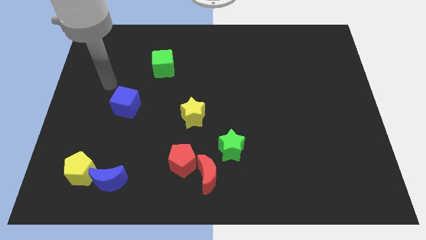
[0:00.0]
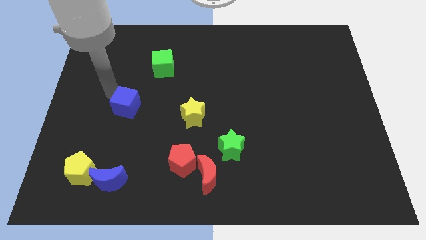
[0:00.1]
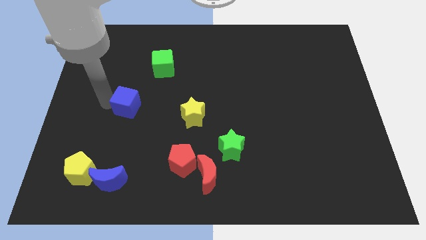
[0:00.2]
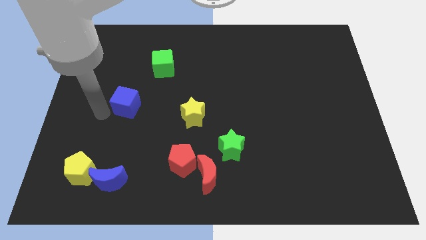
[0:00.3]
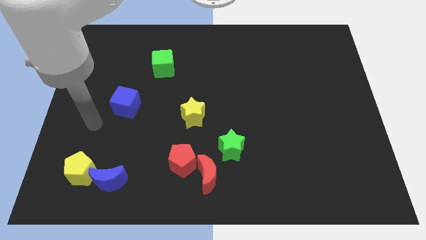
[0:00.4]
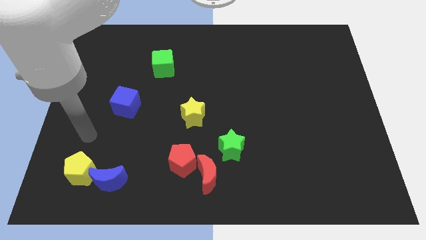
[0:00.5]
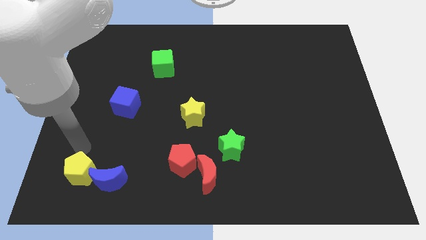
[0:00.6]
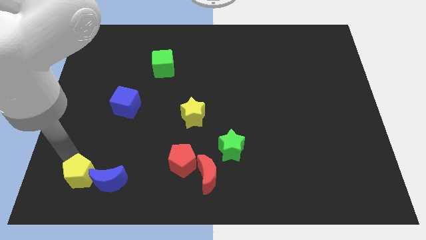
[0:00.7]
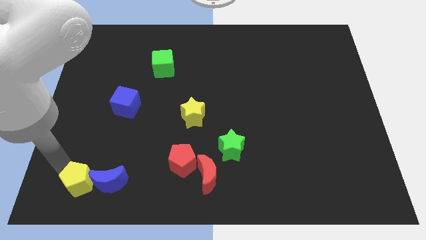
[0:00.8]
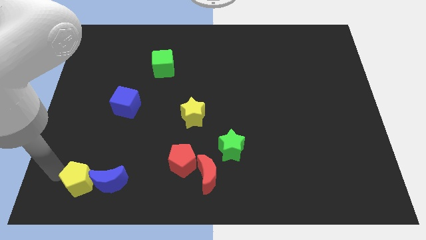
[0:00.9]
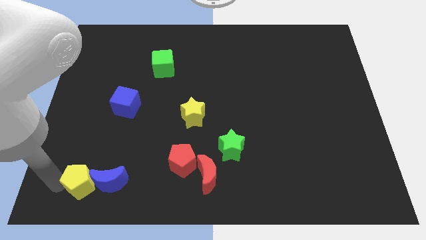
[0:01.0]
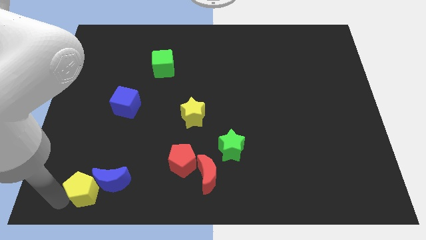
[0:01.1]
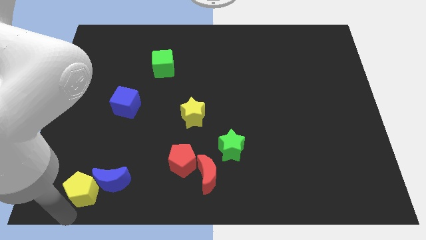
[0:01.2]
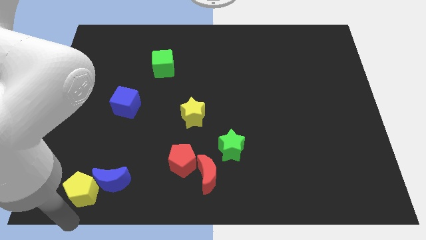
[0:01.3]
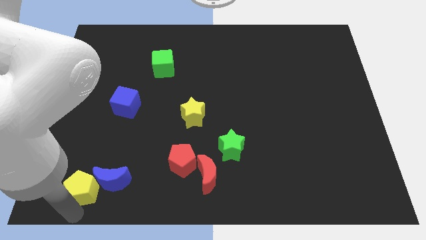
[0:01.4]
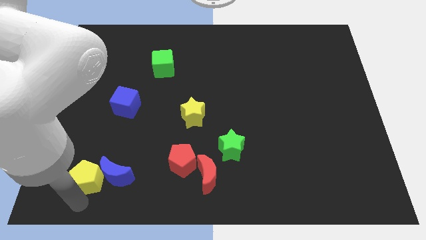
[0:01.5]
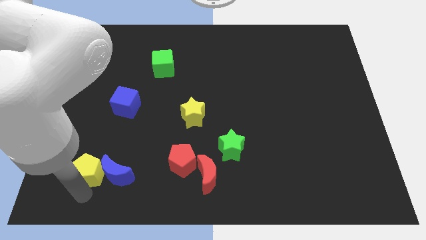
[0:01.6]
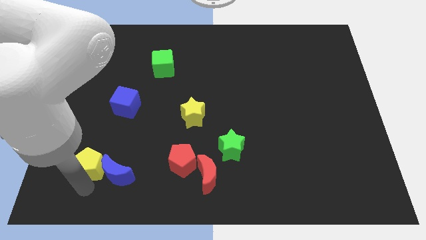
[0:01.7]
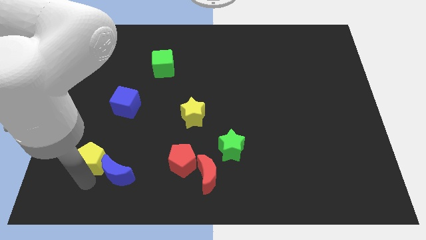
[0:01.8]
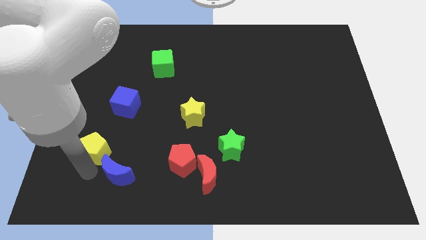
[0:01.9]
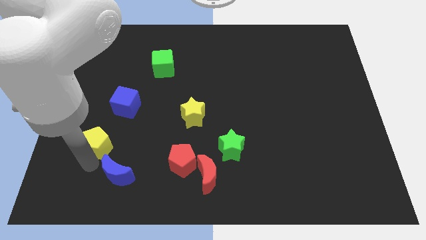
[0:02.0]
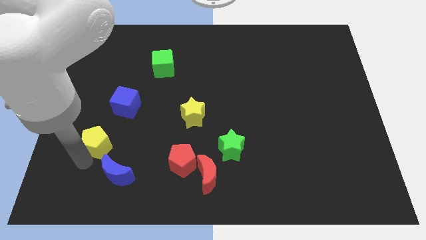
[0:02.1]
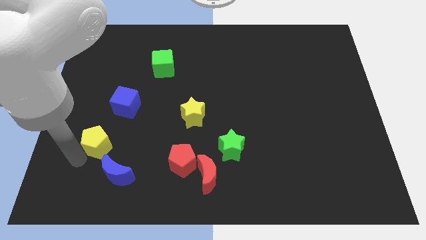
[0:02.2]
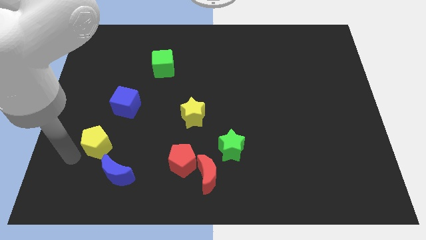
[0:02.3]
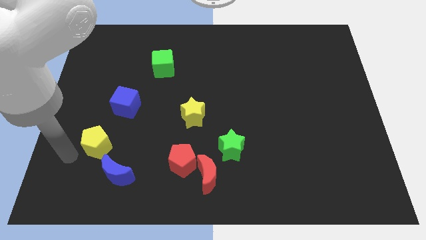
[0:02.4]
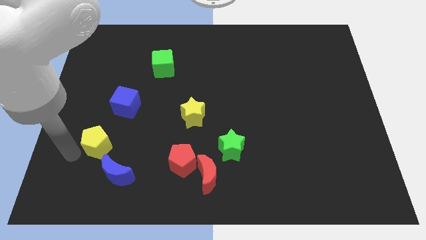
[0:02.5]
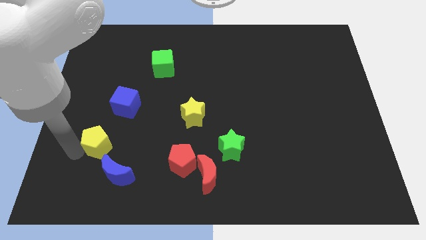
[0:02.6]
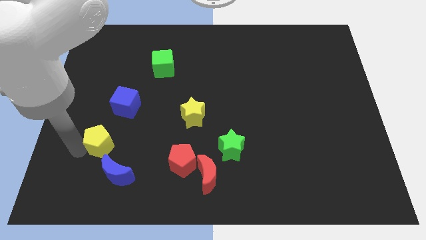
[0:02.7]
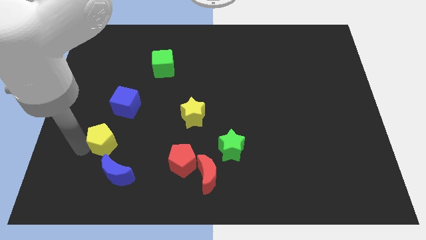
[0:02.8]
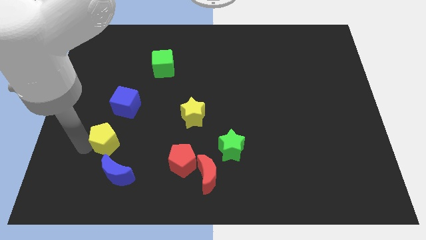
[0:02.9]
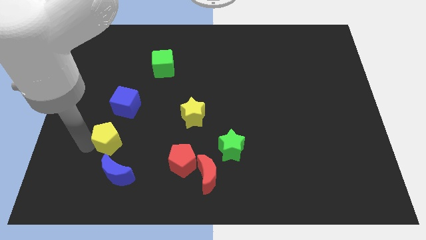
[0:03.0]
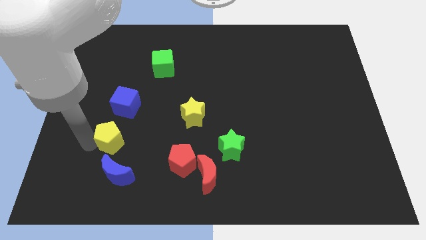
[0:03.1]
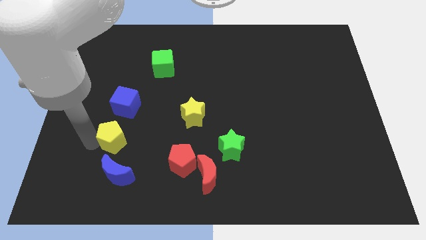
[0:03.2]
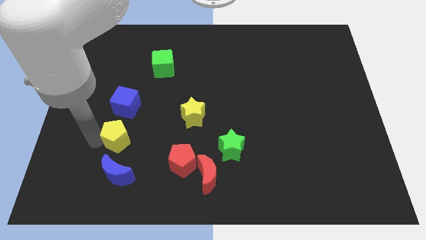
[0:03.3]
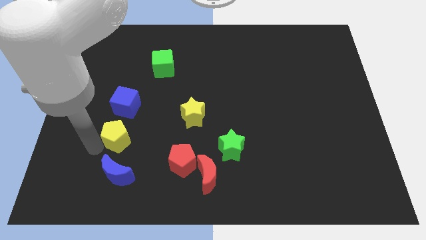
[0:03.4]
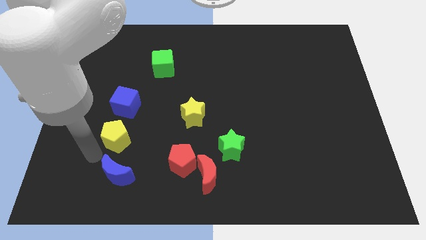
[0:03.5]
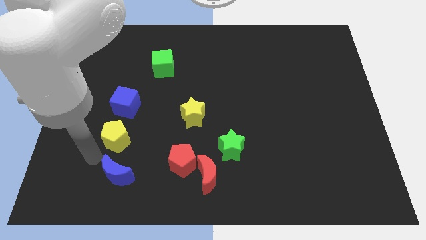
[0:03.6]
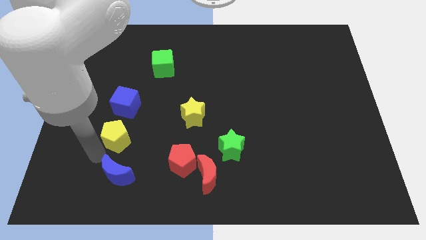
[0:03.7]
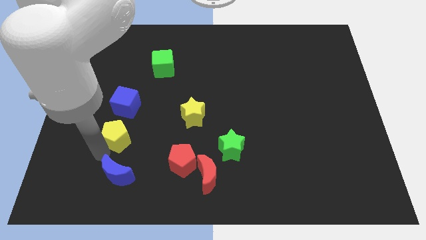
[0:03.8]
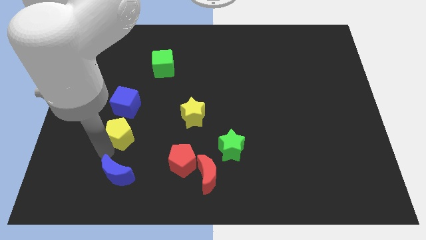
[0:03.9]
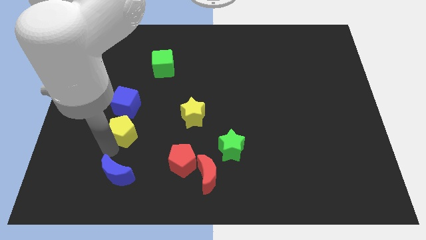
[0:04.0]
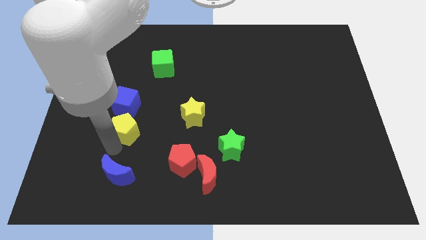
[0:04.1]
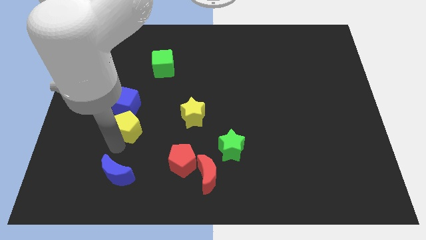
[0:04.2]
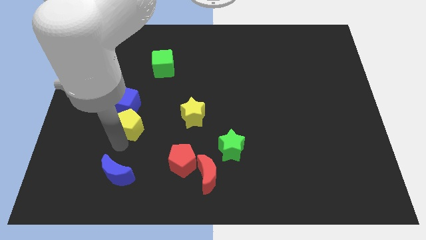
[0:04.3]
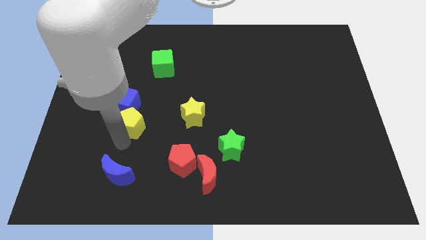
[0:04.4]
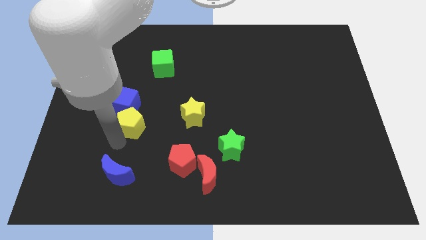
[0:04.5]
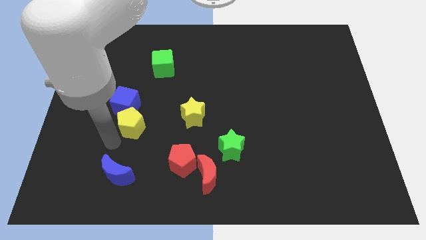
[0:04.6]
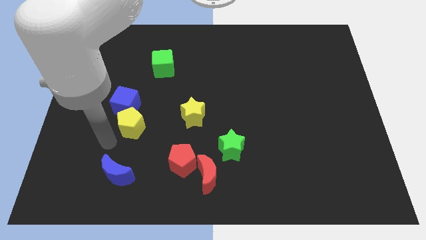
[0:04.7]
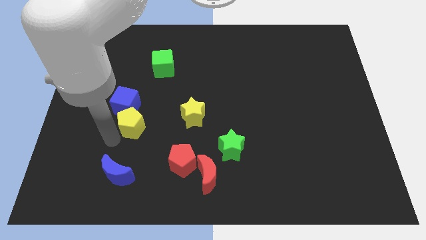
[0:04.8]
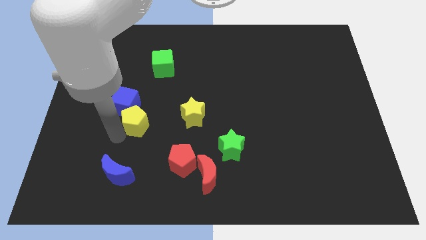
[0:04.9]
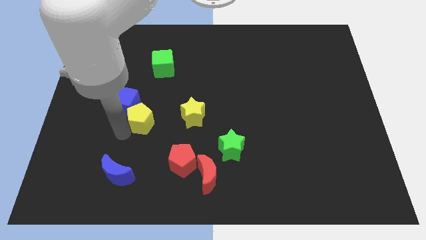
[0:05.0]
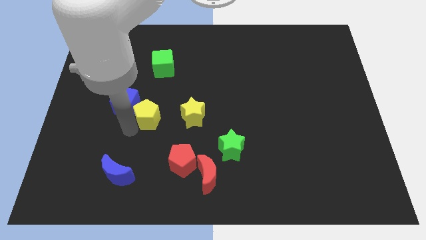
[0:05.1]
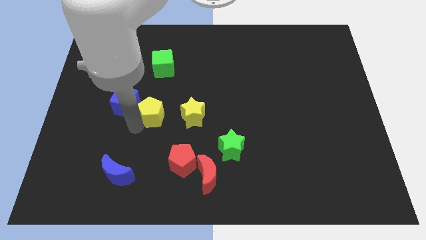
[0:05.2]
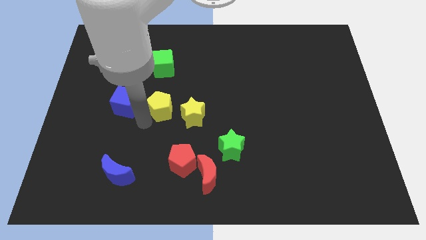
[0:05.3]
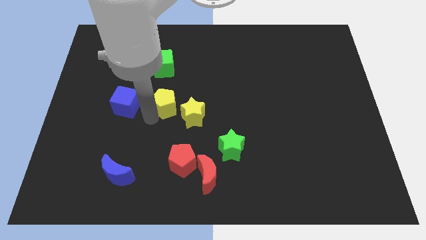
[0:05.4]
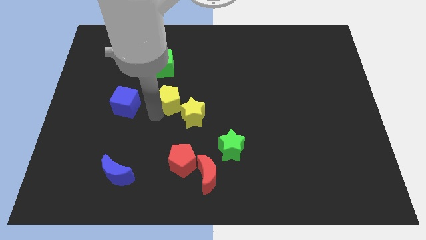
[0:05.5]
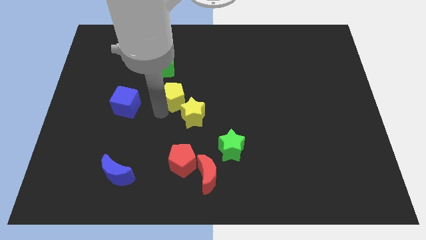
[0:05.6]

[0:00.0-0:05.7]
move the yellow pentagon to the top side of the yellow star

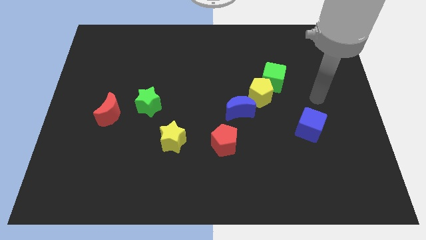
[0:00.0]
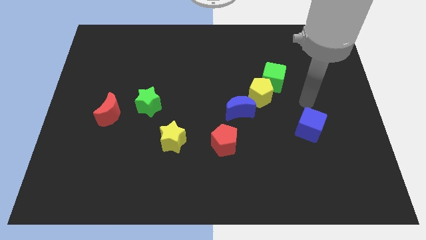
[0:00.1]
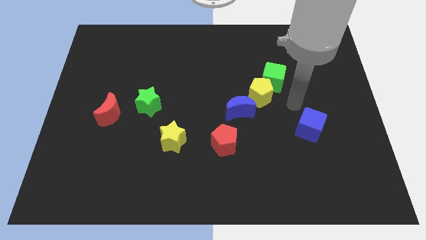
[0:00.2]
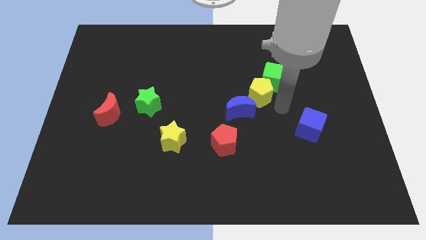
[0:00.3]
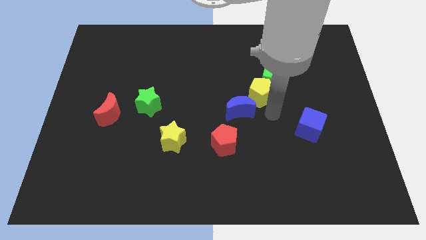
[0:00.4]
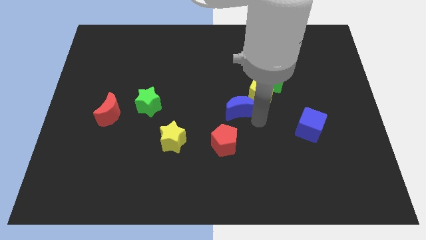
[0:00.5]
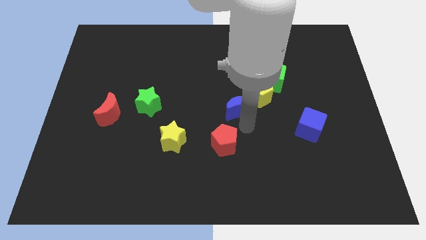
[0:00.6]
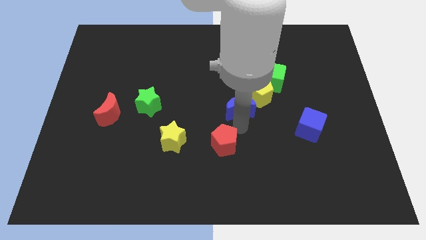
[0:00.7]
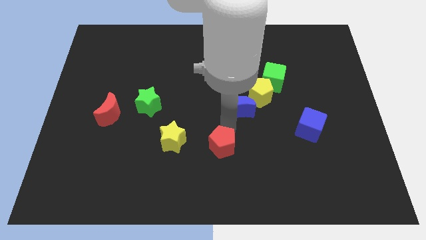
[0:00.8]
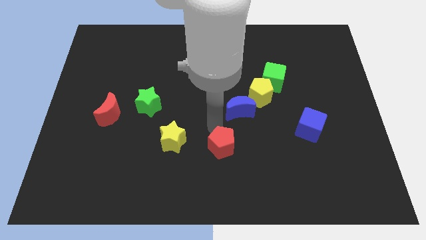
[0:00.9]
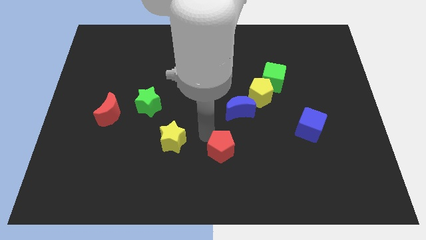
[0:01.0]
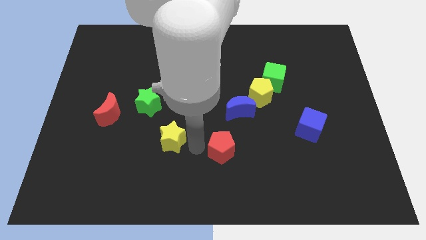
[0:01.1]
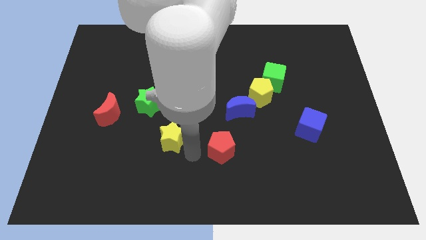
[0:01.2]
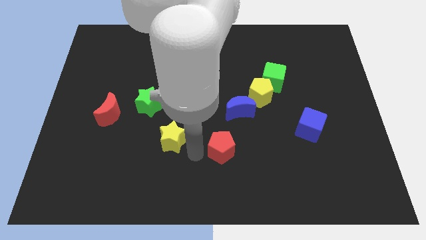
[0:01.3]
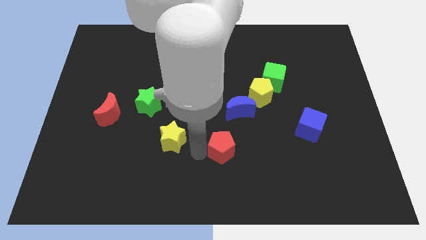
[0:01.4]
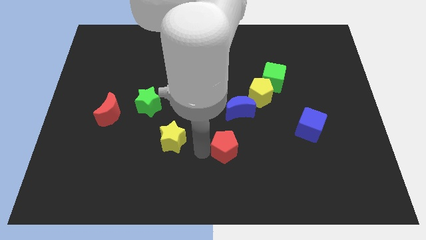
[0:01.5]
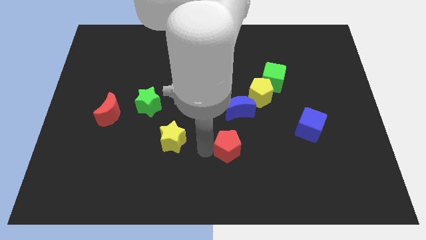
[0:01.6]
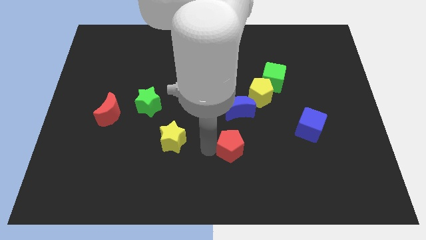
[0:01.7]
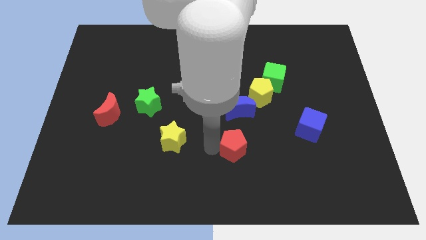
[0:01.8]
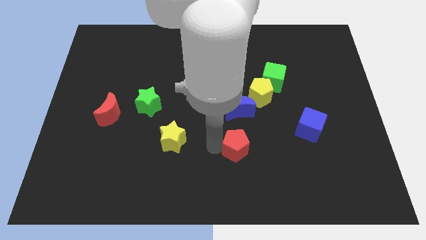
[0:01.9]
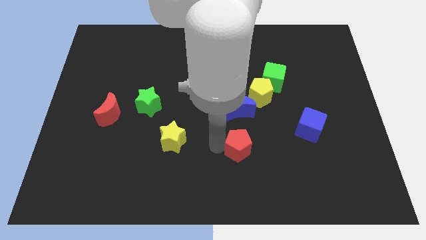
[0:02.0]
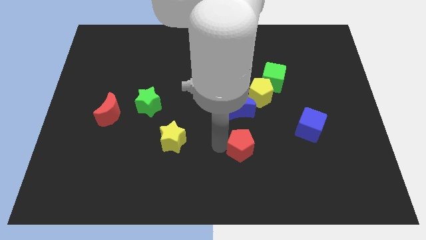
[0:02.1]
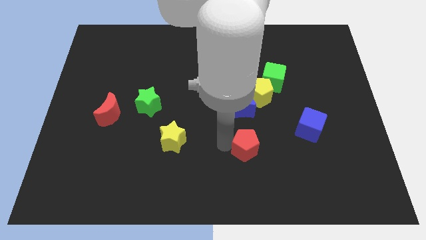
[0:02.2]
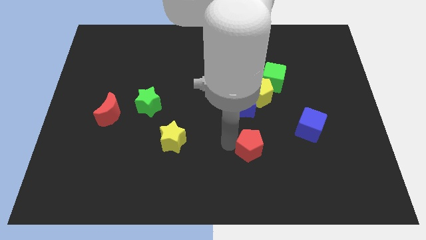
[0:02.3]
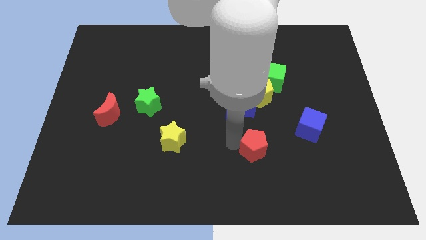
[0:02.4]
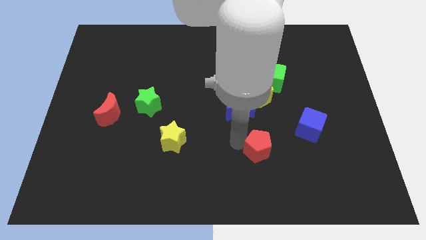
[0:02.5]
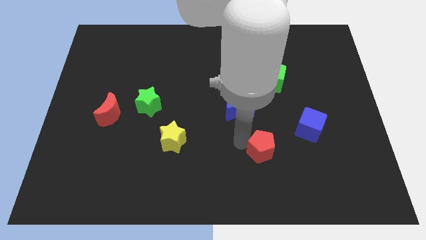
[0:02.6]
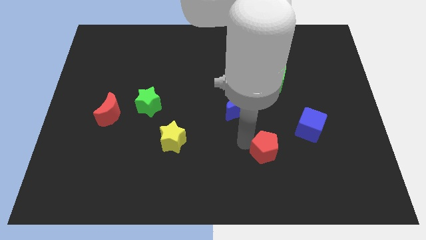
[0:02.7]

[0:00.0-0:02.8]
move the red pentagon to the bottom left of the blue cube
